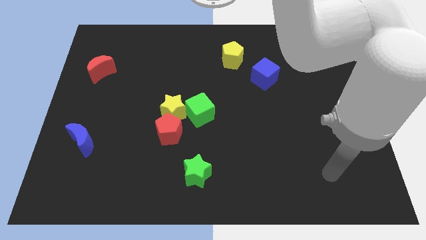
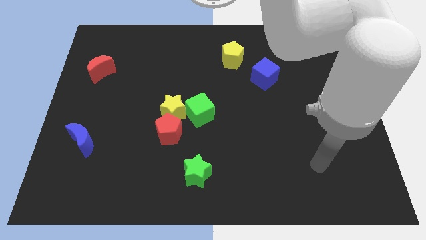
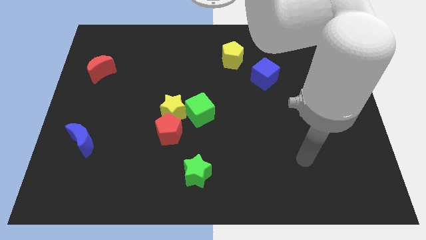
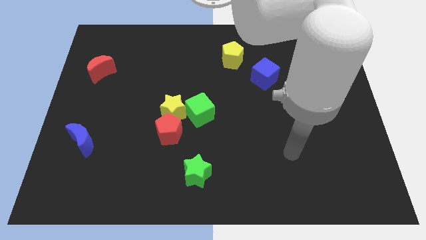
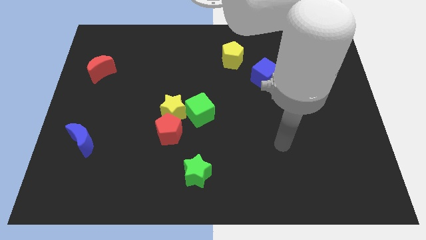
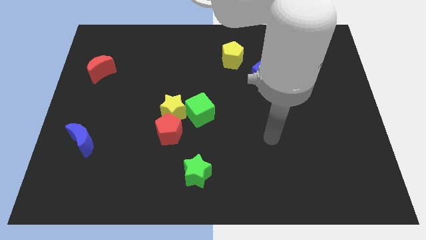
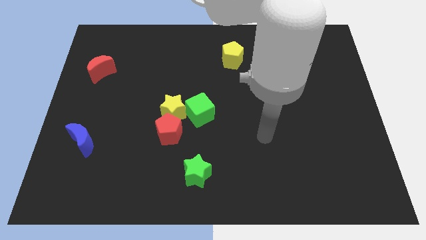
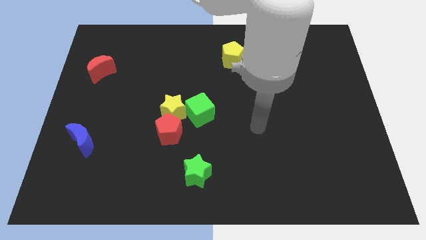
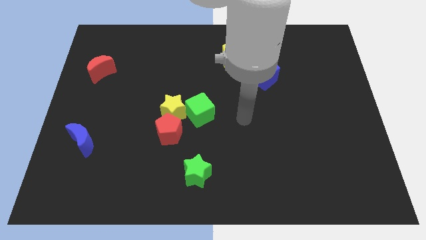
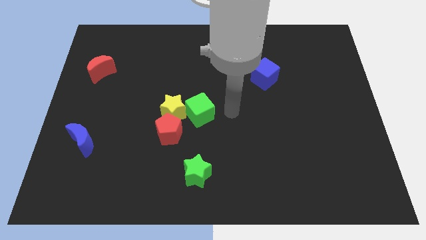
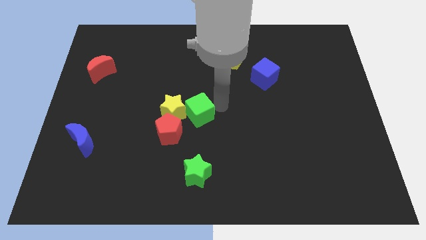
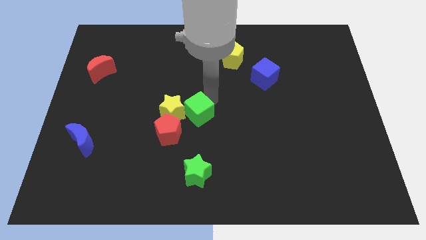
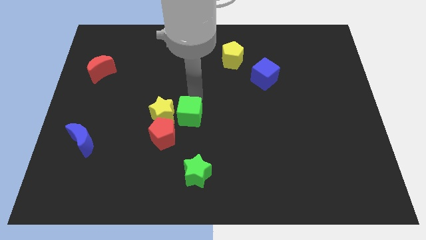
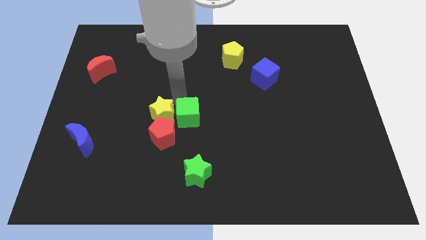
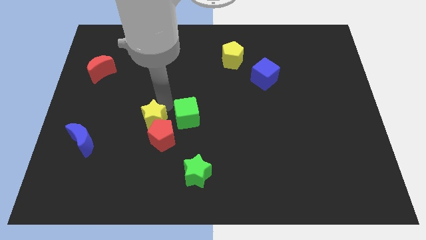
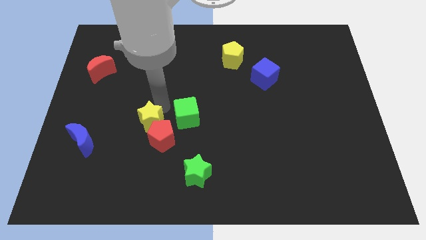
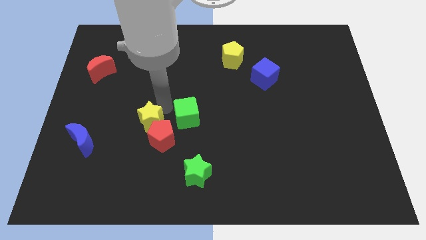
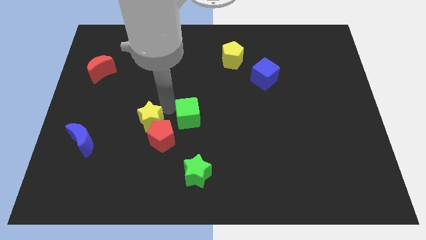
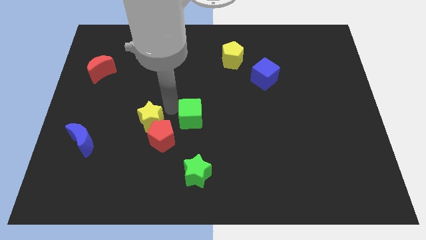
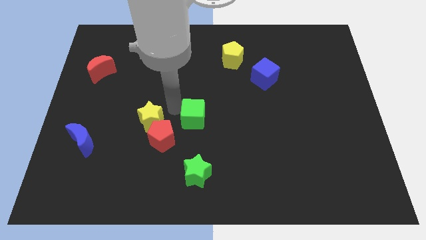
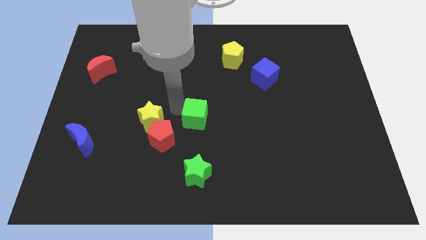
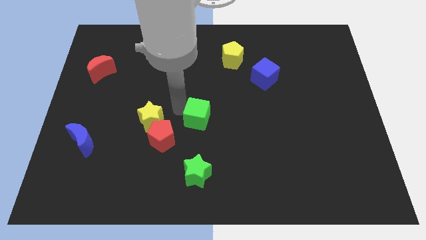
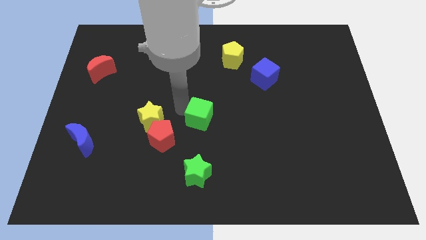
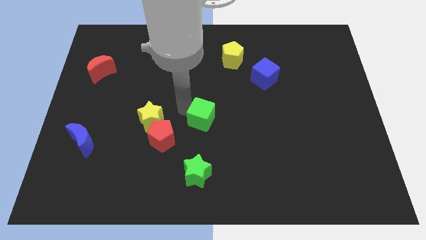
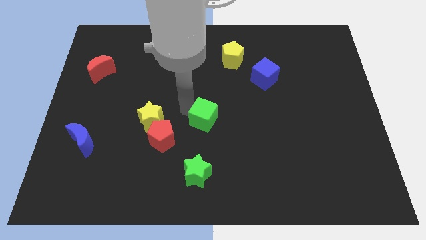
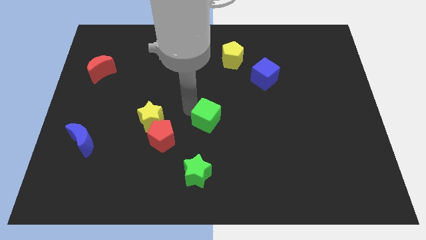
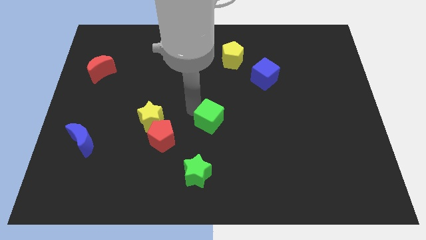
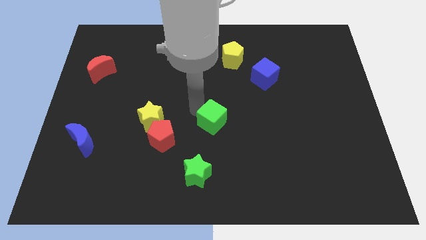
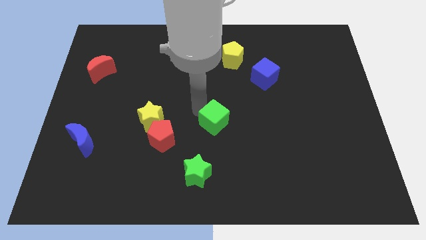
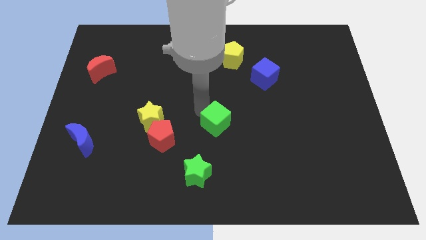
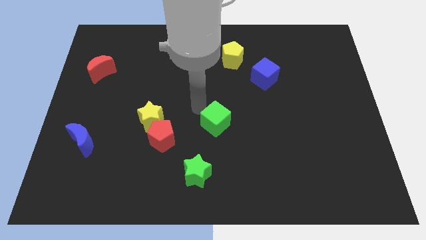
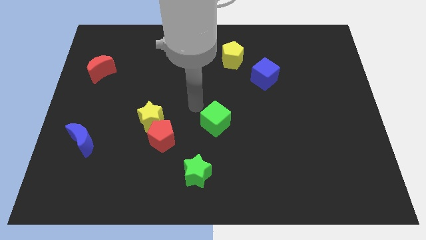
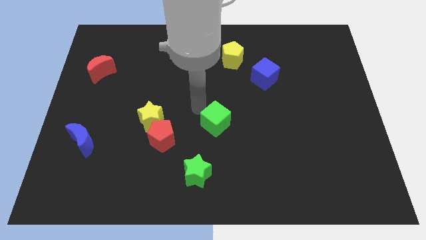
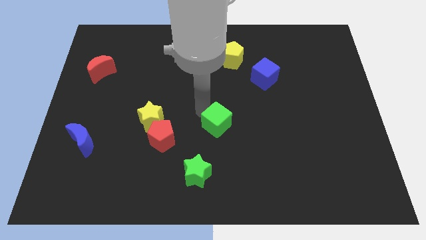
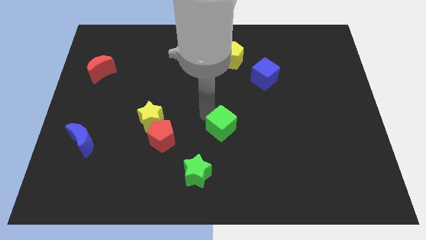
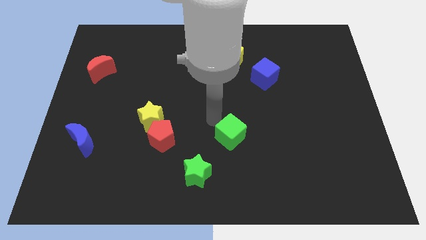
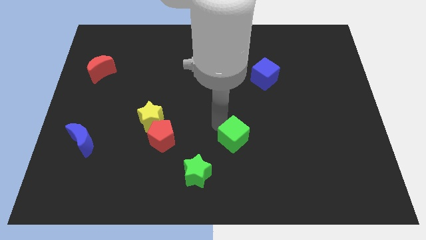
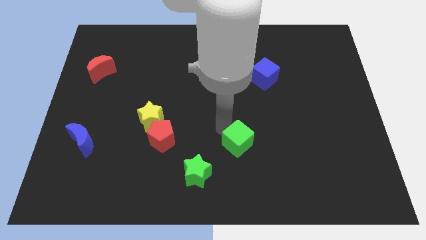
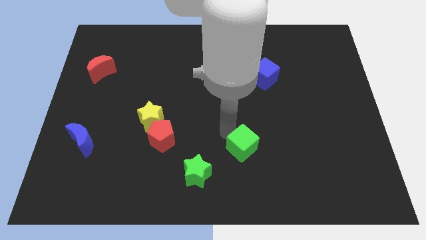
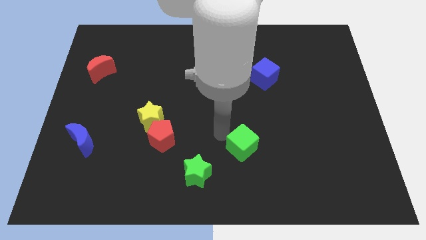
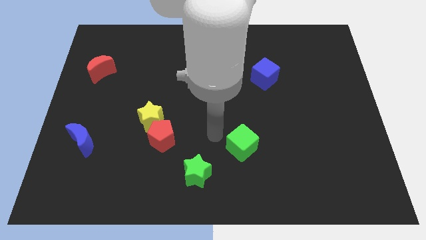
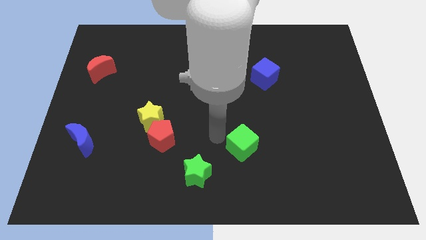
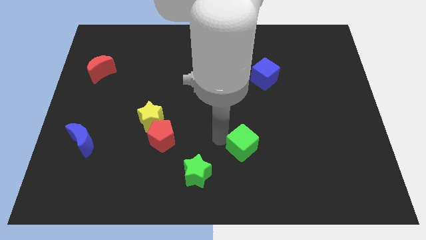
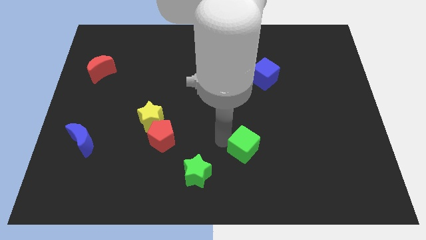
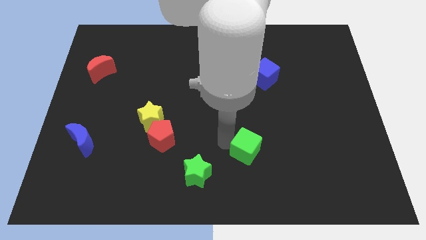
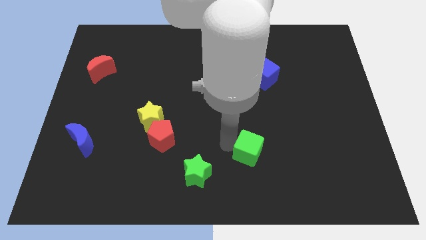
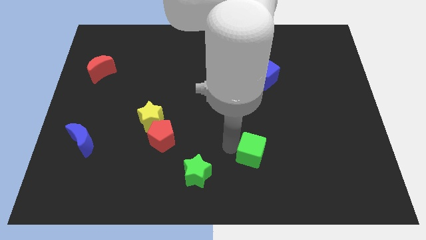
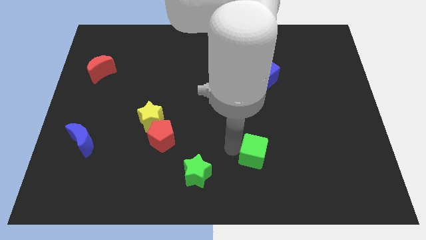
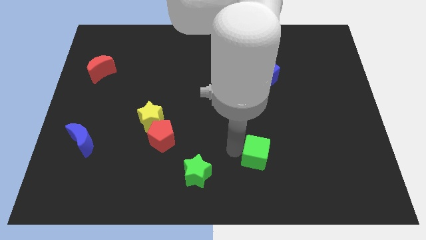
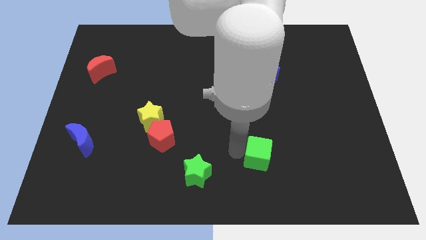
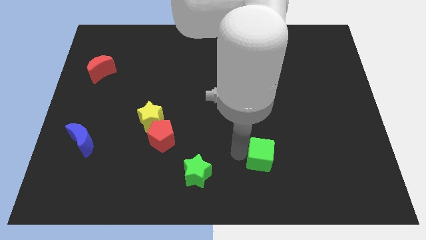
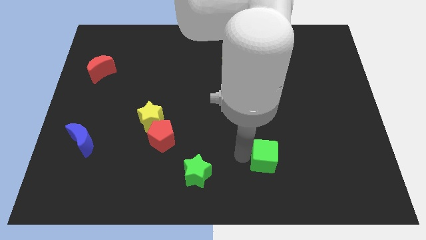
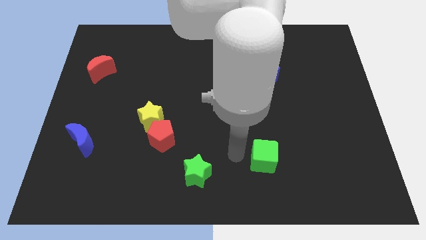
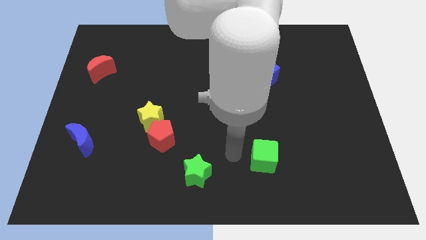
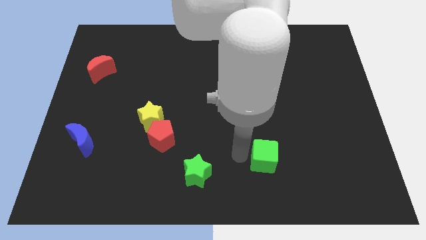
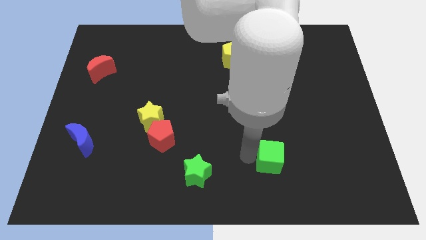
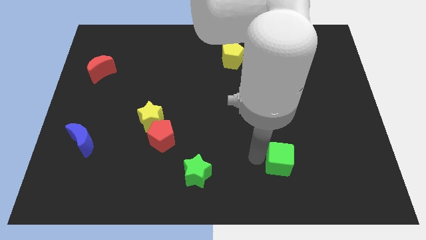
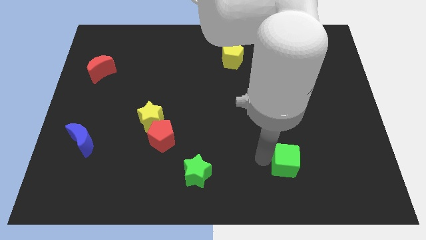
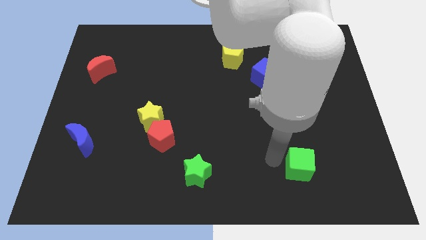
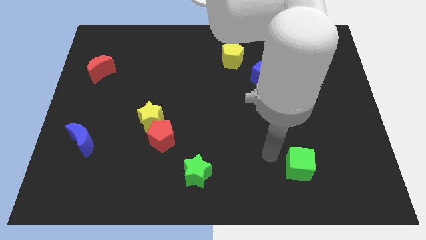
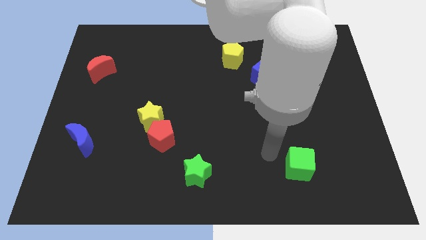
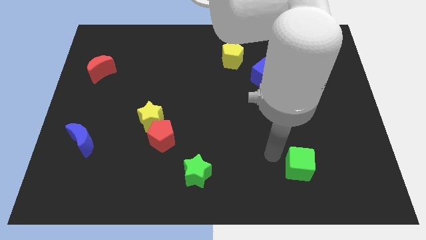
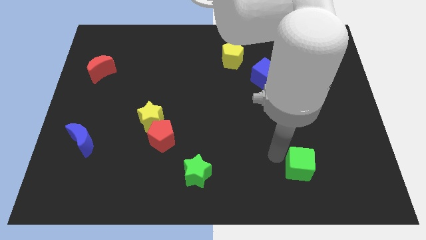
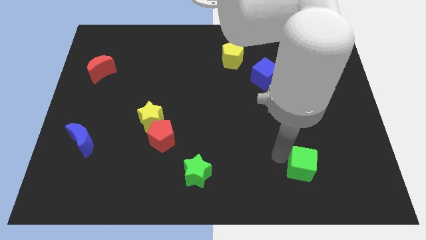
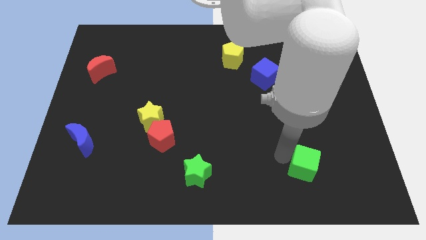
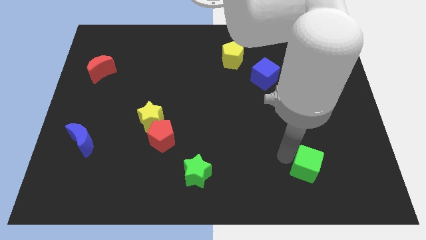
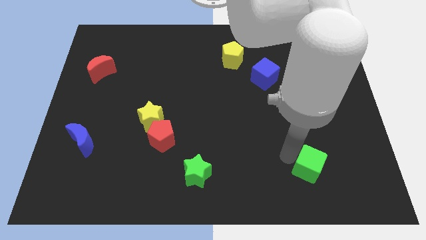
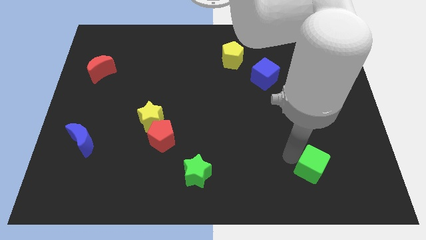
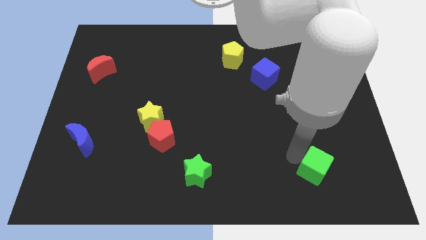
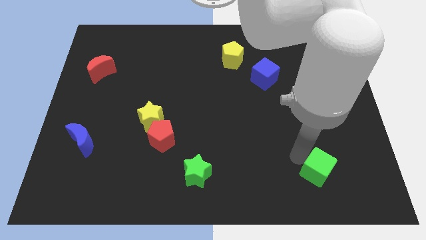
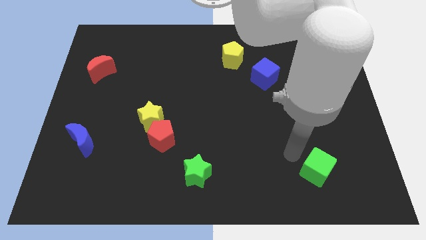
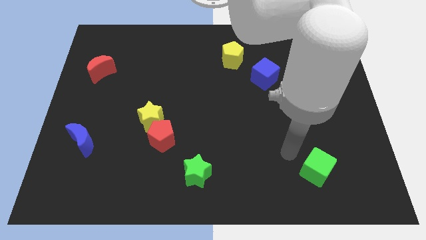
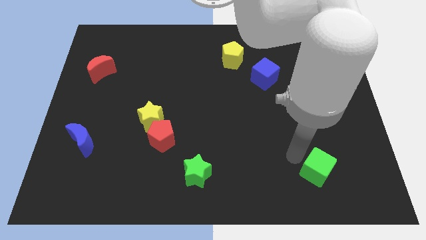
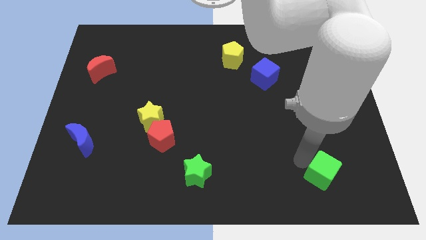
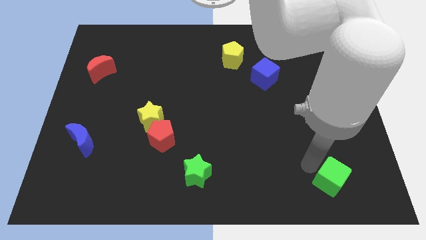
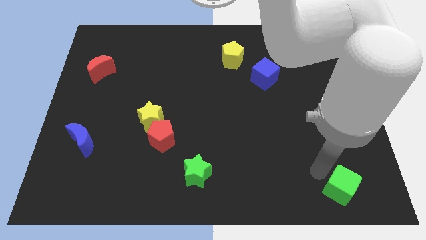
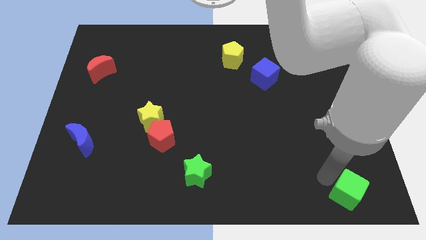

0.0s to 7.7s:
push the green cube to the lower right corner

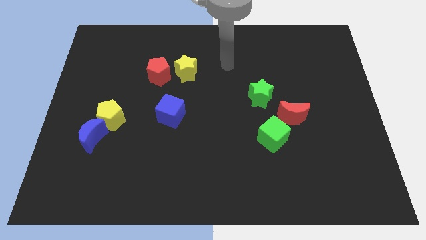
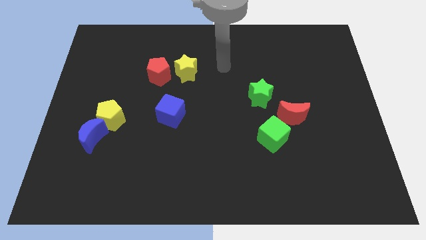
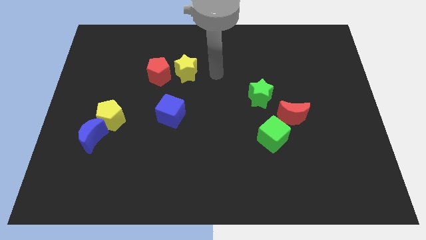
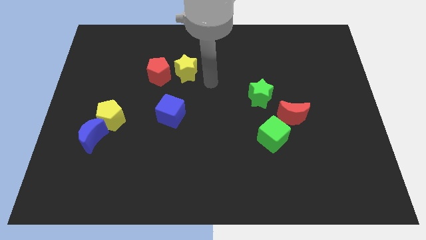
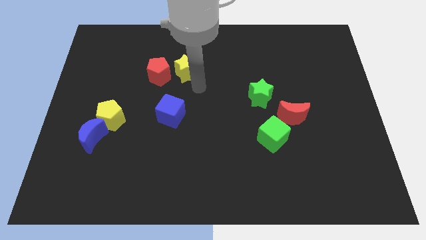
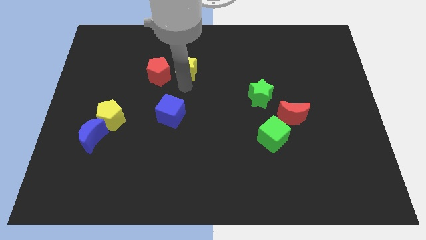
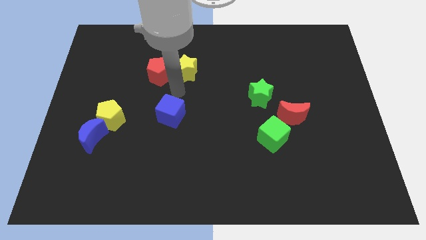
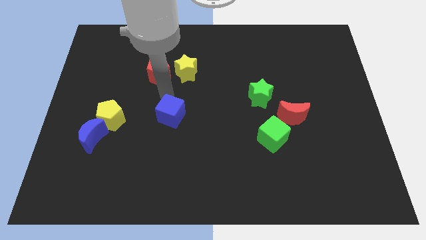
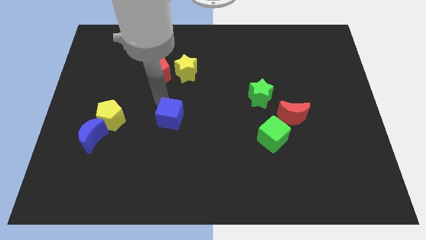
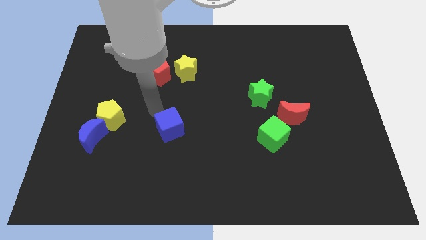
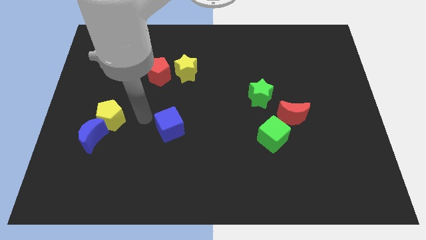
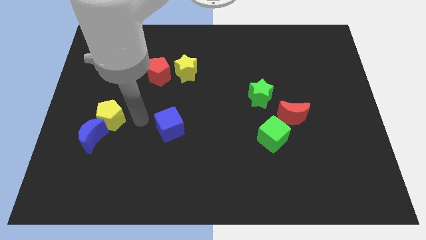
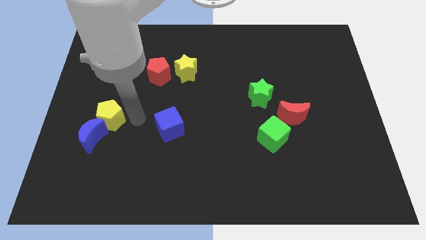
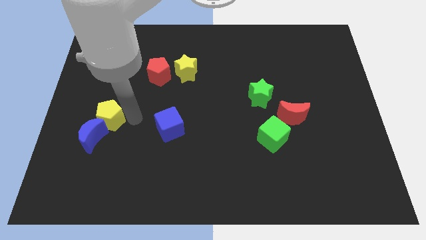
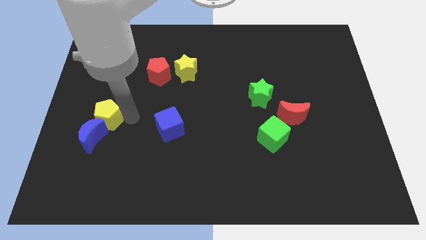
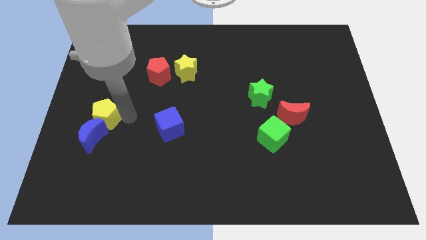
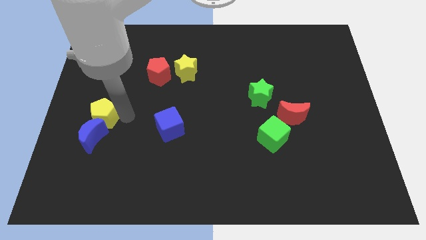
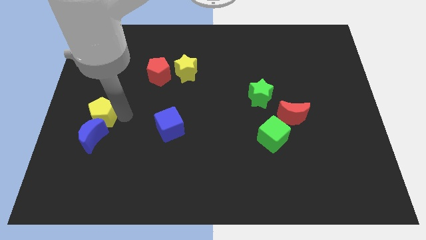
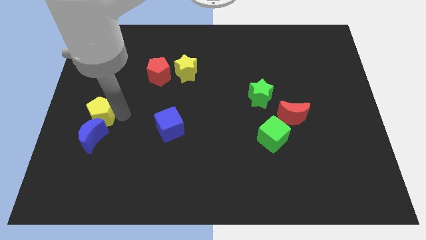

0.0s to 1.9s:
slide the yellow pentagon to the center left
